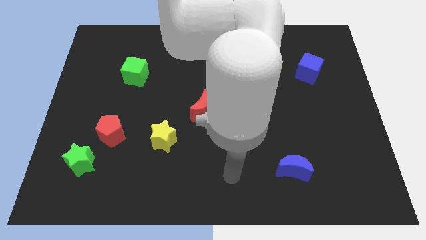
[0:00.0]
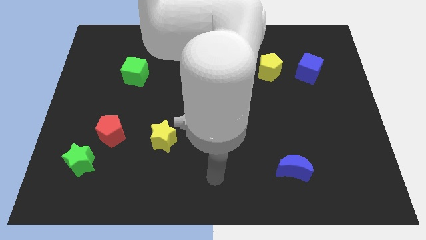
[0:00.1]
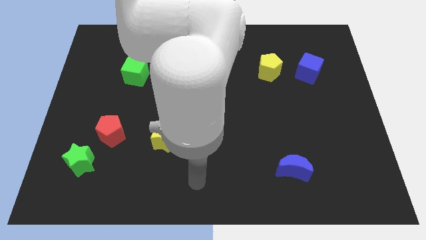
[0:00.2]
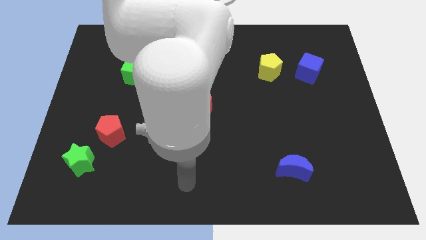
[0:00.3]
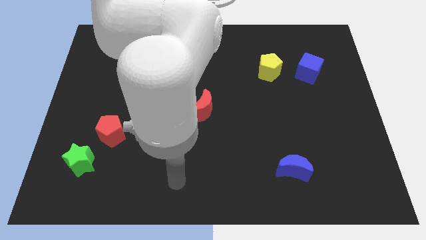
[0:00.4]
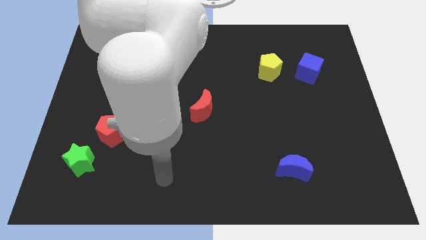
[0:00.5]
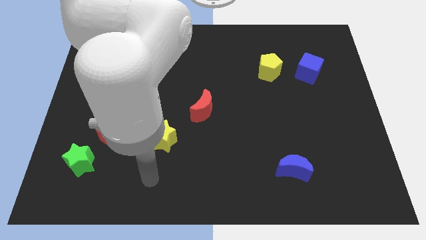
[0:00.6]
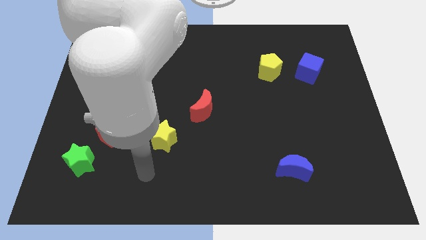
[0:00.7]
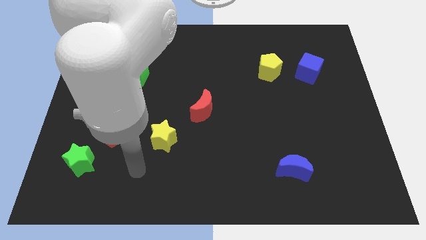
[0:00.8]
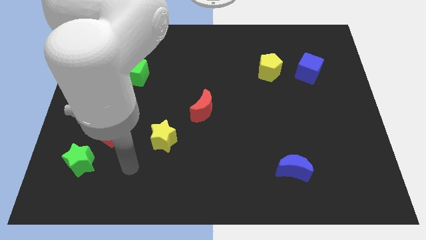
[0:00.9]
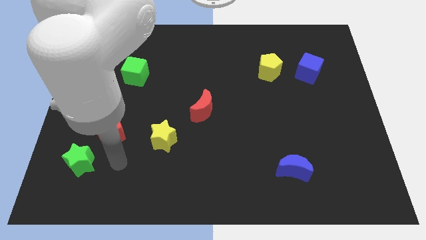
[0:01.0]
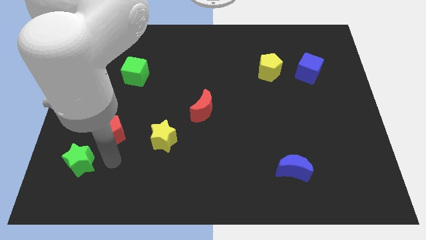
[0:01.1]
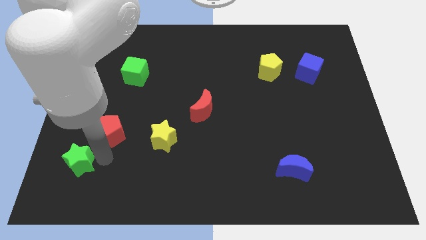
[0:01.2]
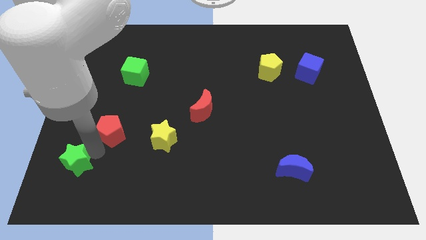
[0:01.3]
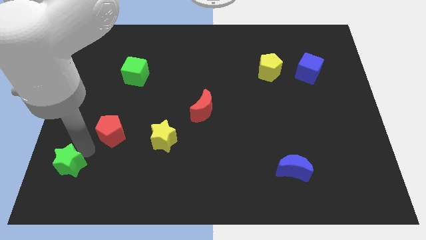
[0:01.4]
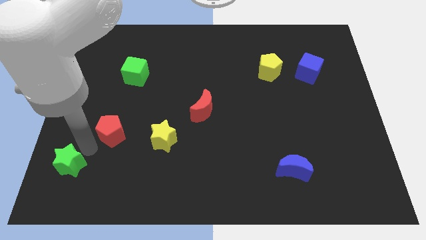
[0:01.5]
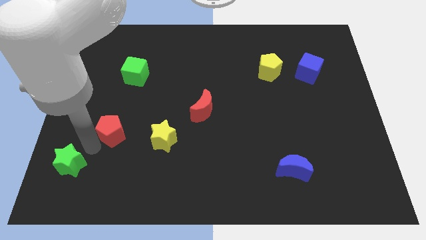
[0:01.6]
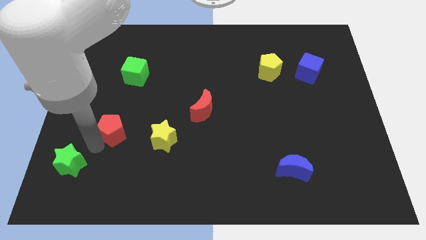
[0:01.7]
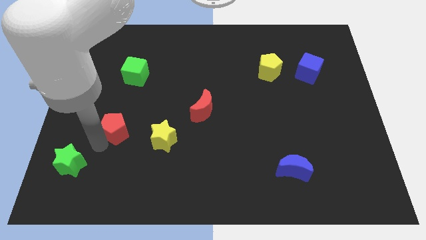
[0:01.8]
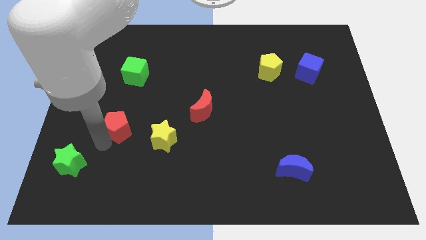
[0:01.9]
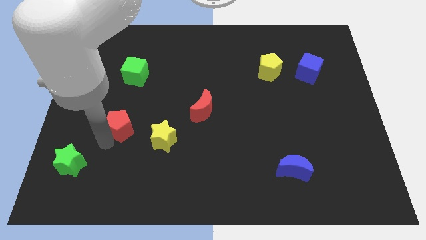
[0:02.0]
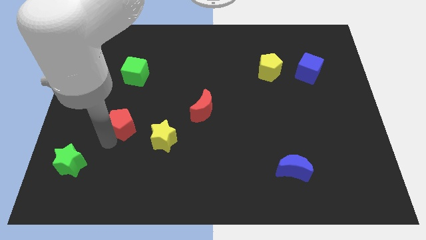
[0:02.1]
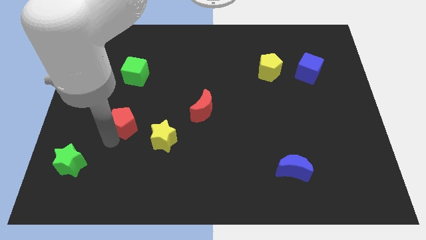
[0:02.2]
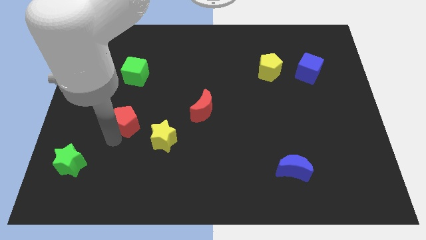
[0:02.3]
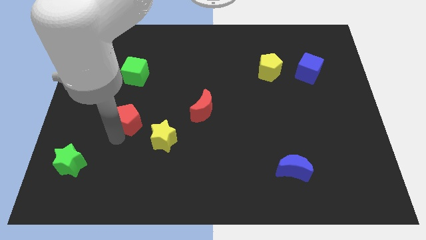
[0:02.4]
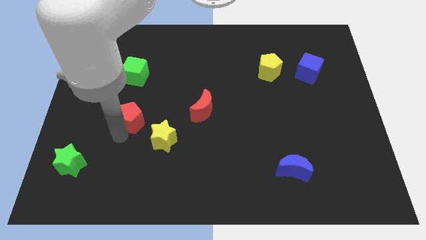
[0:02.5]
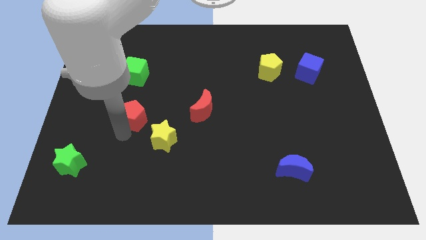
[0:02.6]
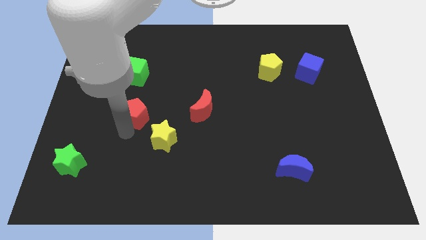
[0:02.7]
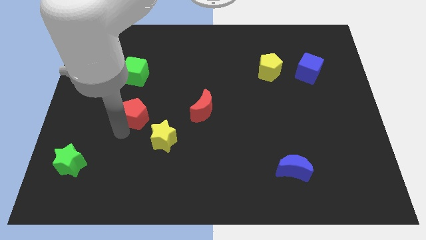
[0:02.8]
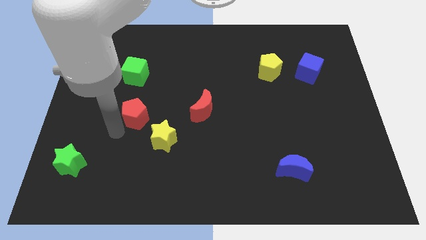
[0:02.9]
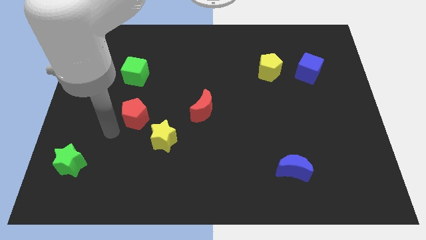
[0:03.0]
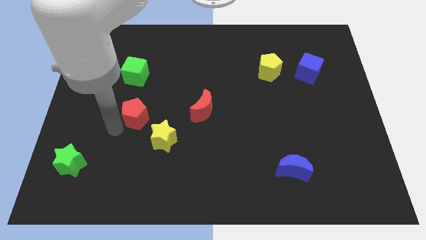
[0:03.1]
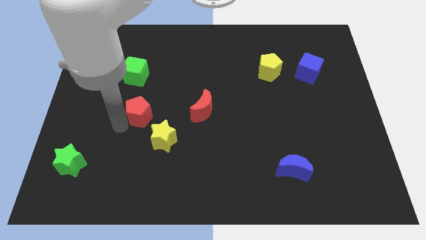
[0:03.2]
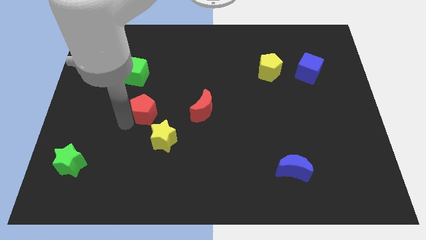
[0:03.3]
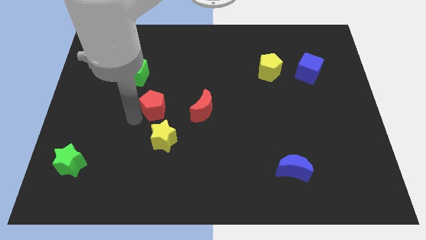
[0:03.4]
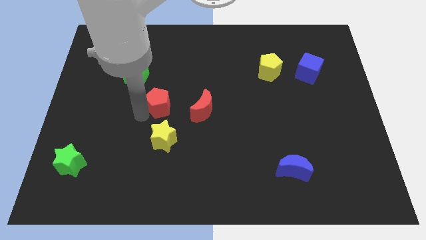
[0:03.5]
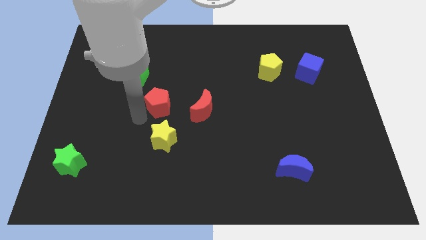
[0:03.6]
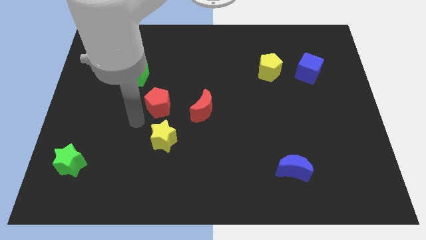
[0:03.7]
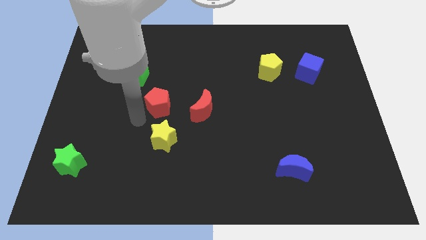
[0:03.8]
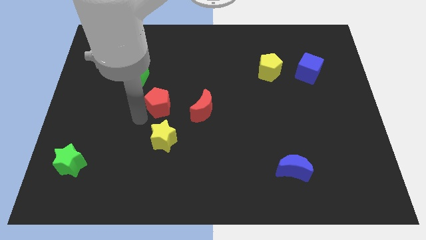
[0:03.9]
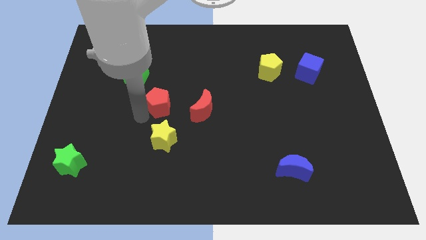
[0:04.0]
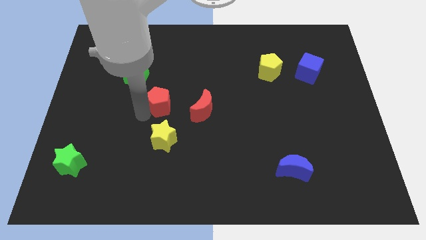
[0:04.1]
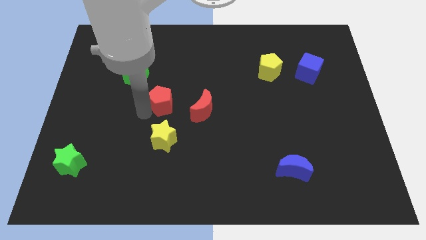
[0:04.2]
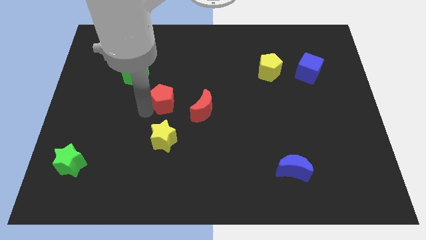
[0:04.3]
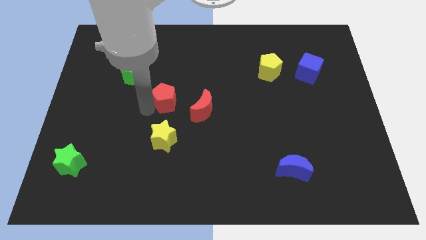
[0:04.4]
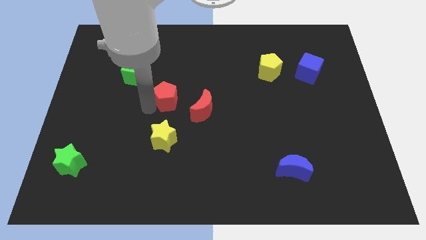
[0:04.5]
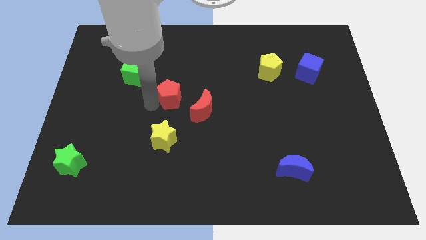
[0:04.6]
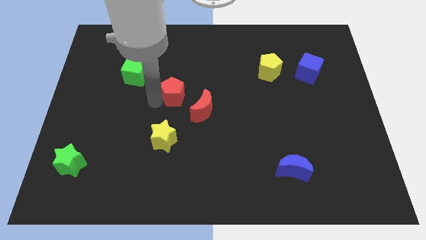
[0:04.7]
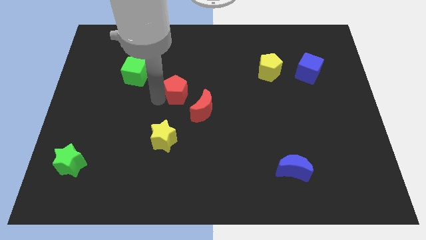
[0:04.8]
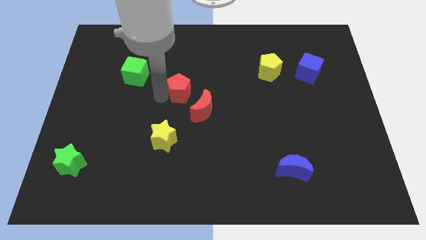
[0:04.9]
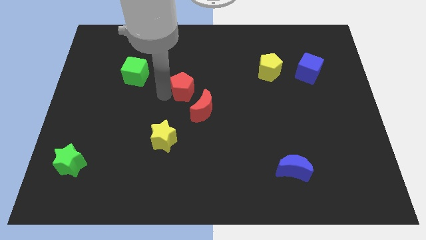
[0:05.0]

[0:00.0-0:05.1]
slide the red pentagon diagonally up and to the right

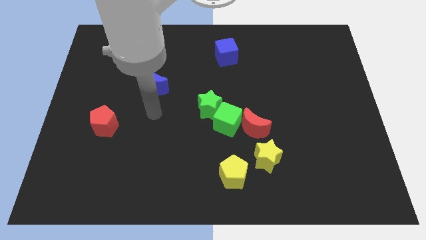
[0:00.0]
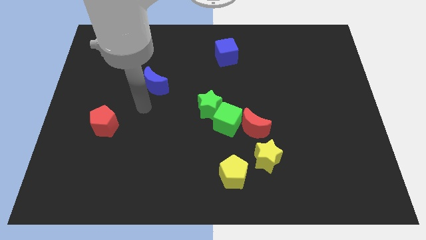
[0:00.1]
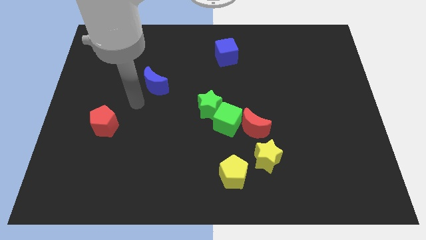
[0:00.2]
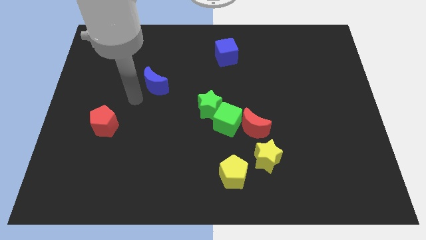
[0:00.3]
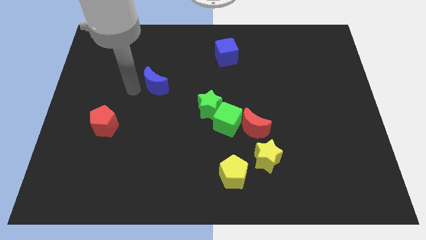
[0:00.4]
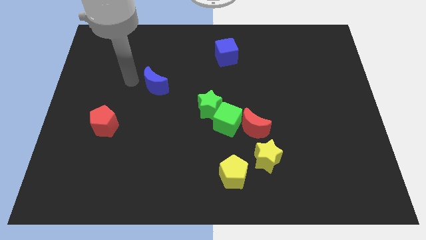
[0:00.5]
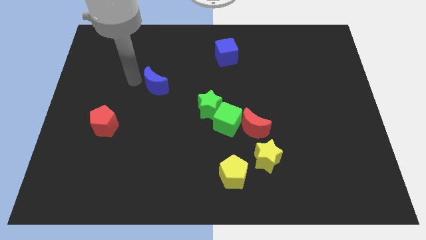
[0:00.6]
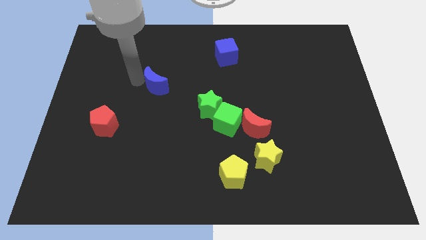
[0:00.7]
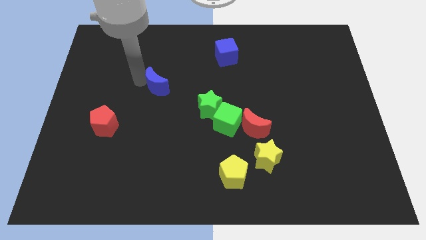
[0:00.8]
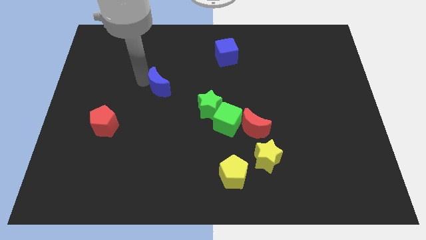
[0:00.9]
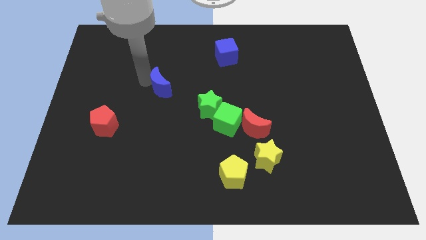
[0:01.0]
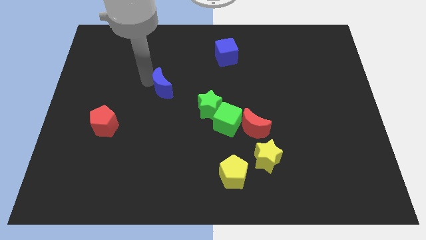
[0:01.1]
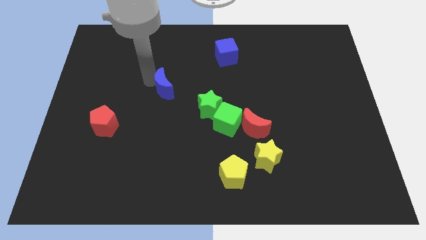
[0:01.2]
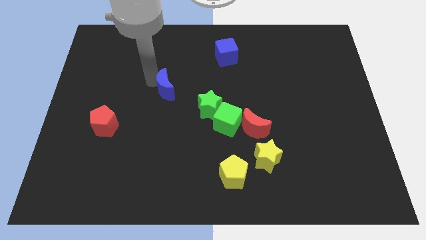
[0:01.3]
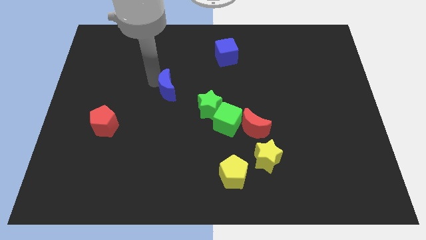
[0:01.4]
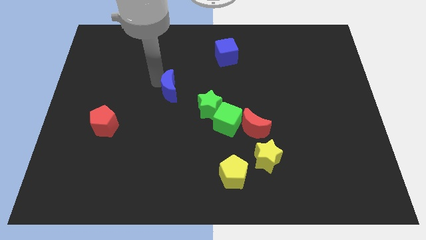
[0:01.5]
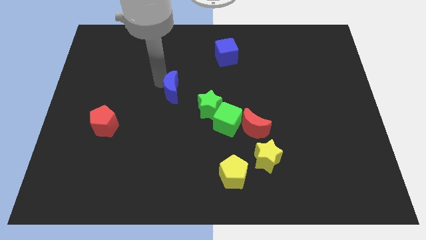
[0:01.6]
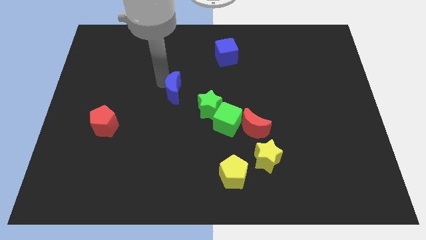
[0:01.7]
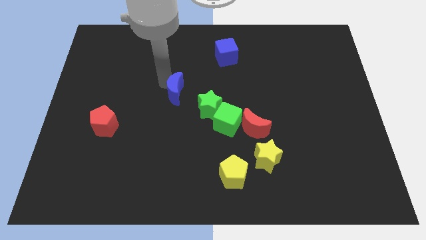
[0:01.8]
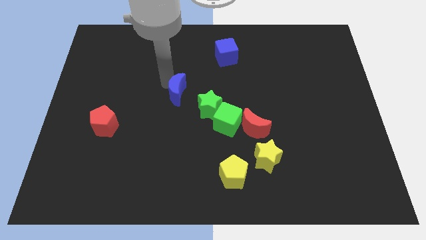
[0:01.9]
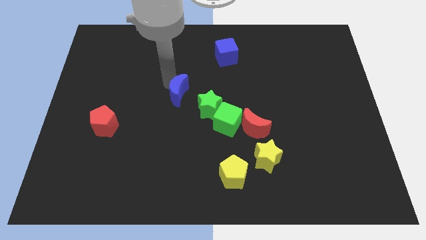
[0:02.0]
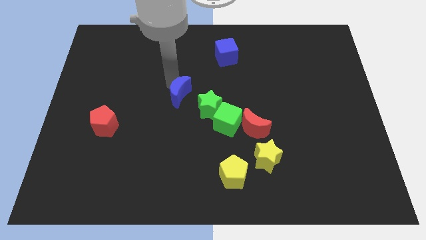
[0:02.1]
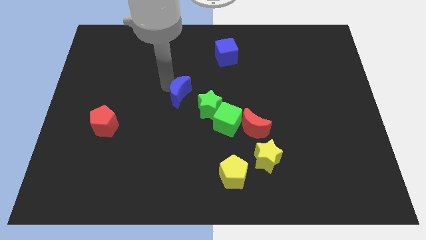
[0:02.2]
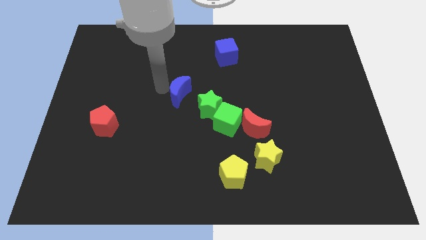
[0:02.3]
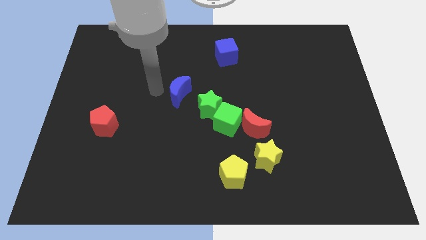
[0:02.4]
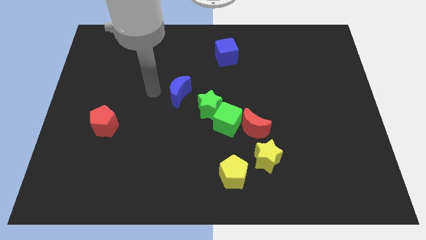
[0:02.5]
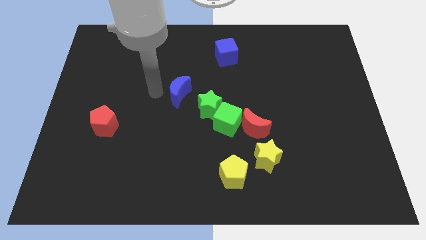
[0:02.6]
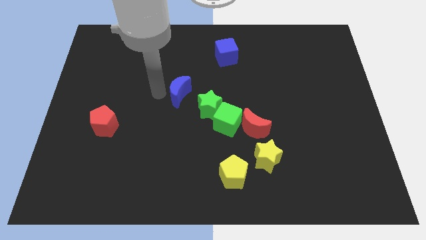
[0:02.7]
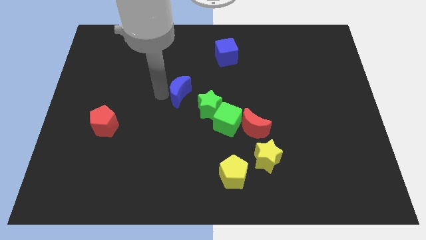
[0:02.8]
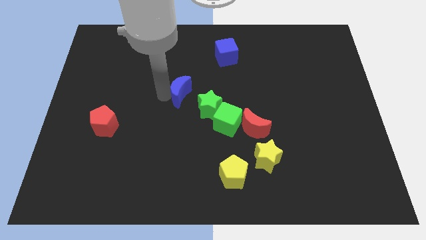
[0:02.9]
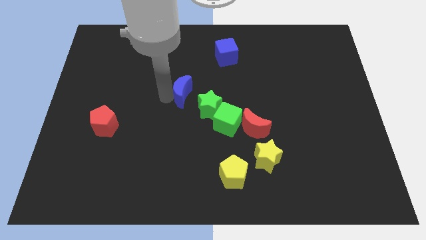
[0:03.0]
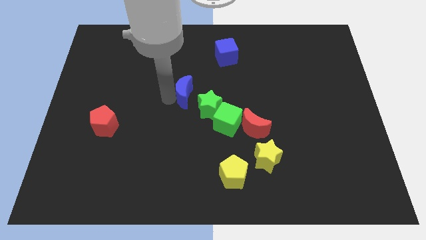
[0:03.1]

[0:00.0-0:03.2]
slide the blue moon slightly right
